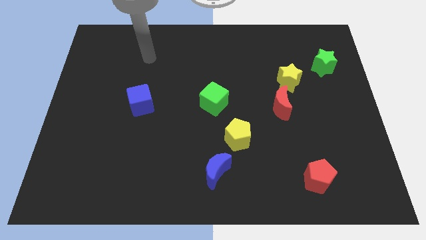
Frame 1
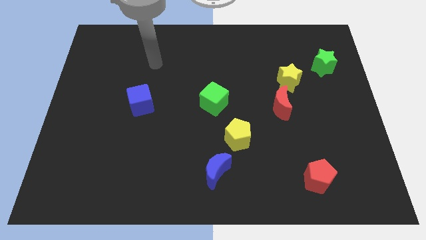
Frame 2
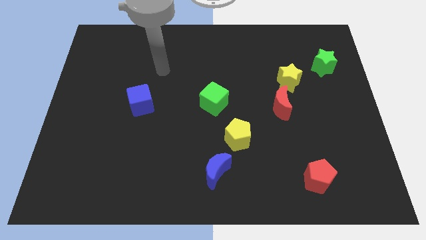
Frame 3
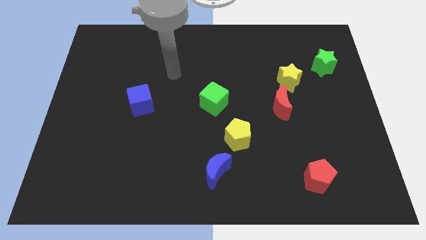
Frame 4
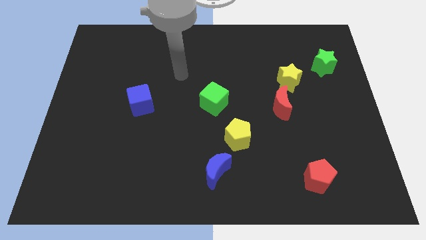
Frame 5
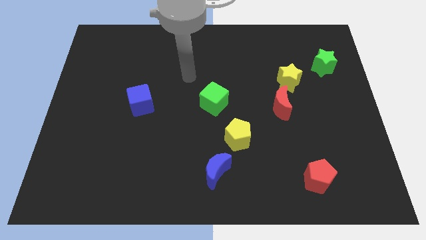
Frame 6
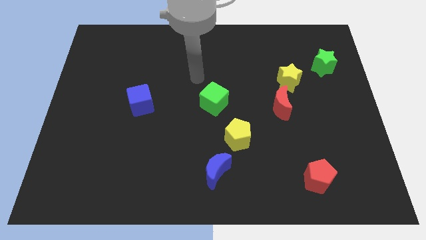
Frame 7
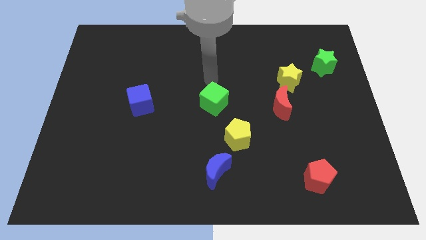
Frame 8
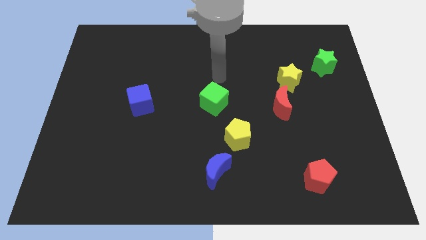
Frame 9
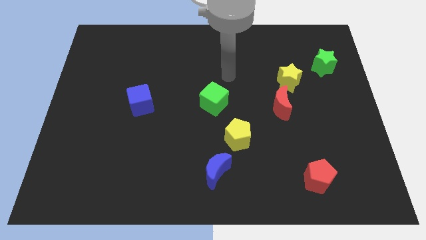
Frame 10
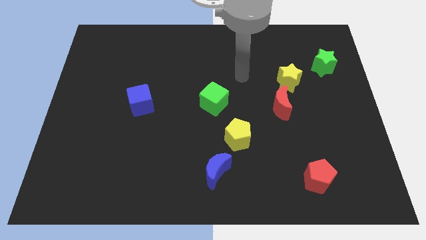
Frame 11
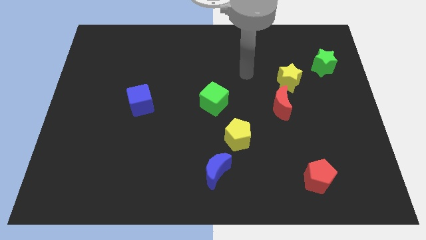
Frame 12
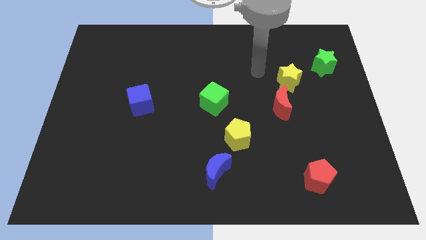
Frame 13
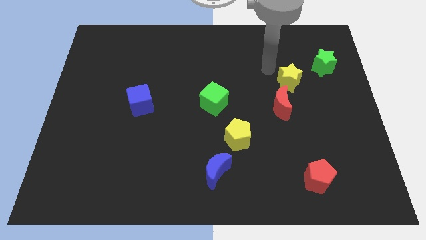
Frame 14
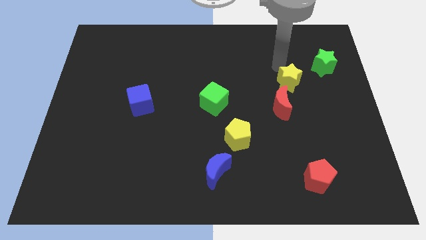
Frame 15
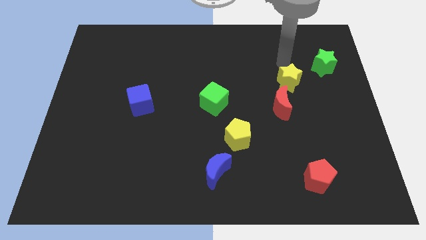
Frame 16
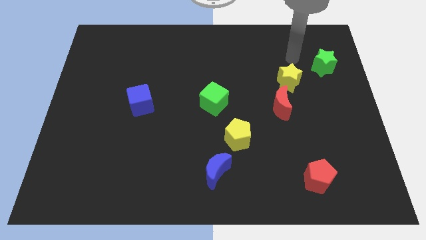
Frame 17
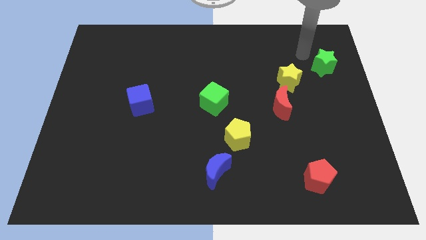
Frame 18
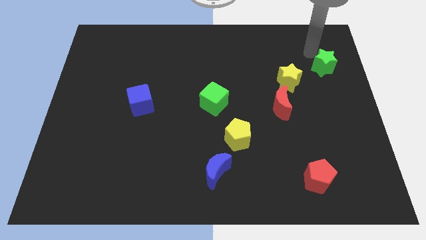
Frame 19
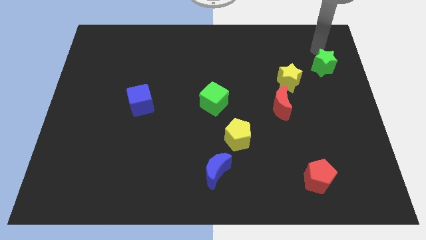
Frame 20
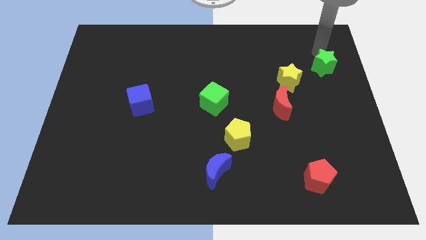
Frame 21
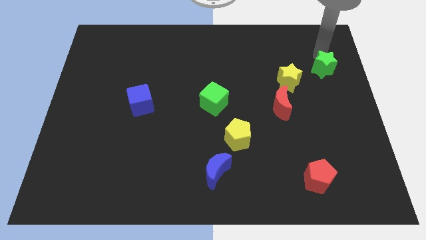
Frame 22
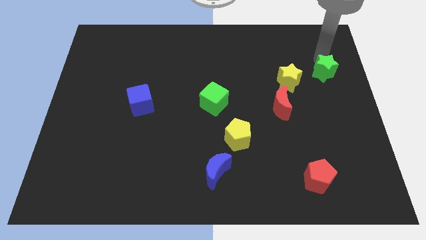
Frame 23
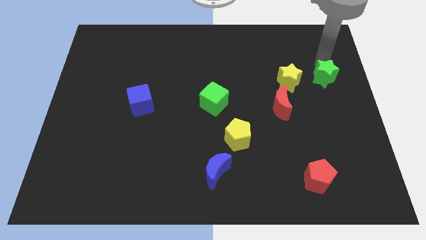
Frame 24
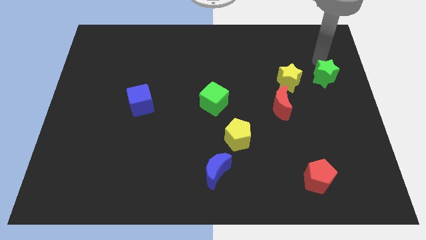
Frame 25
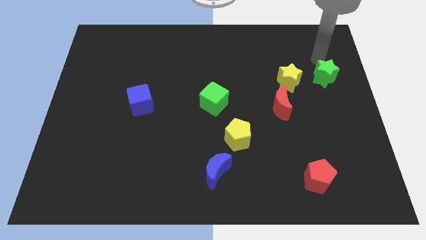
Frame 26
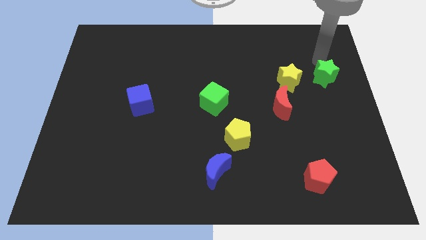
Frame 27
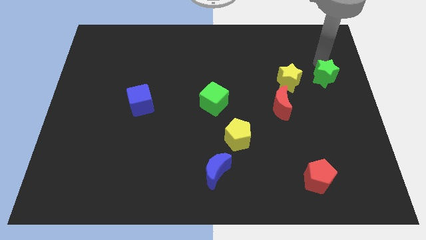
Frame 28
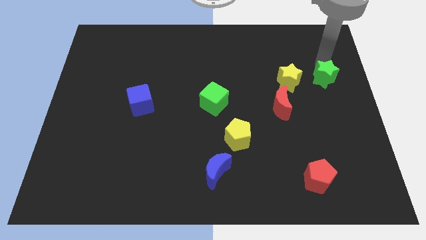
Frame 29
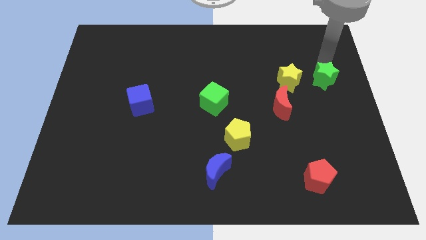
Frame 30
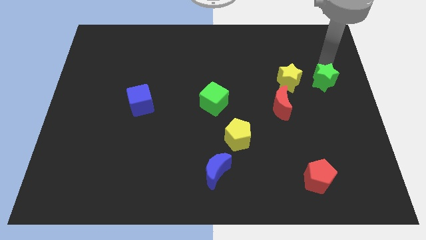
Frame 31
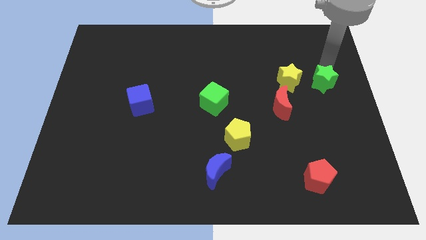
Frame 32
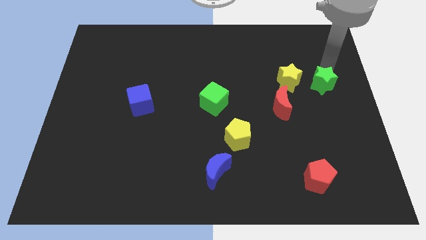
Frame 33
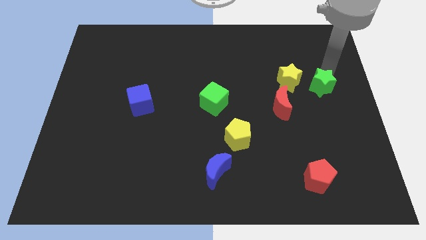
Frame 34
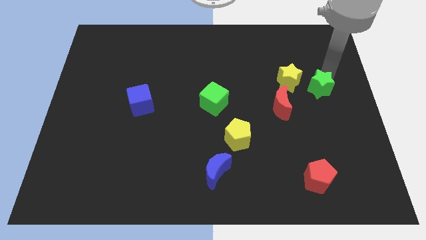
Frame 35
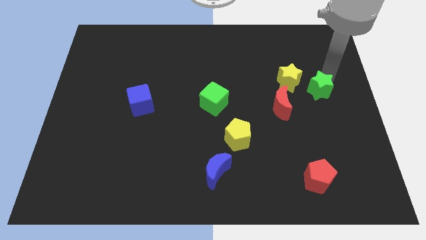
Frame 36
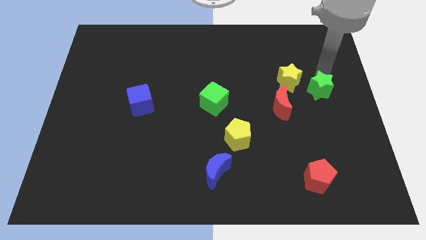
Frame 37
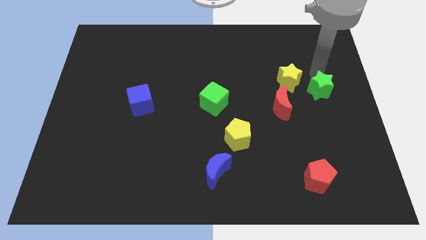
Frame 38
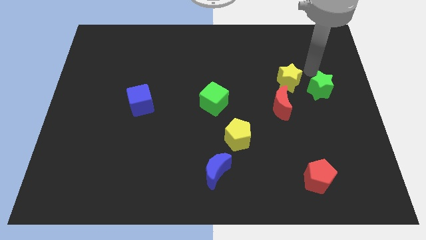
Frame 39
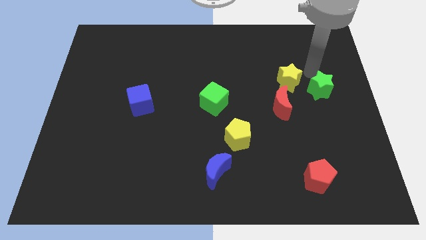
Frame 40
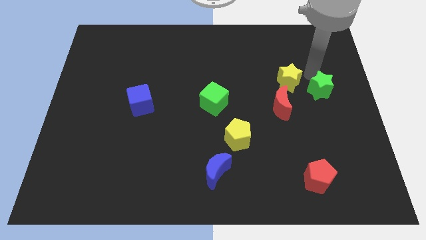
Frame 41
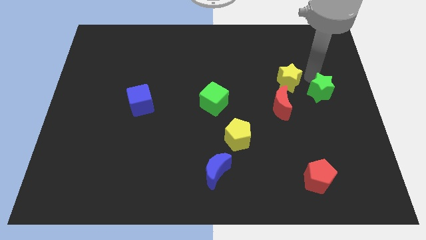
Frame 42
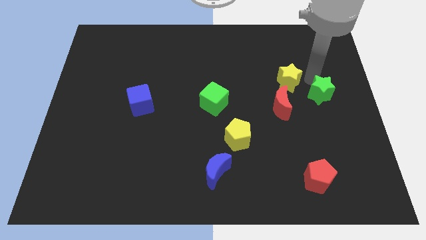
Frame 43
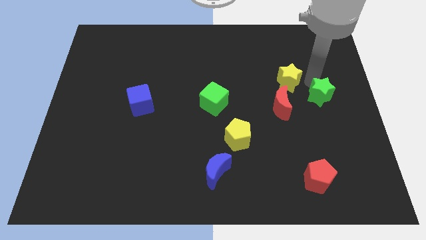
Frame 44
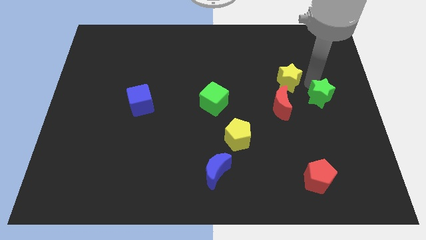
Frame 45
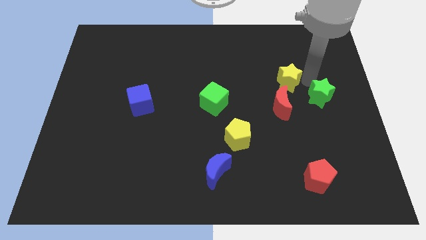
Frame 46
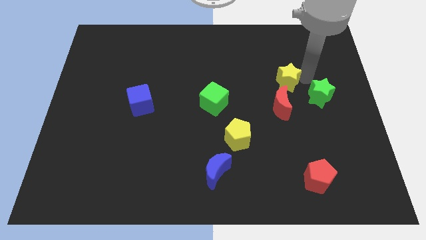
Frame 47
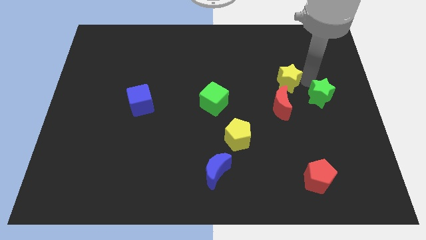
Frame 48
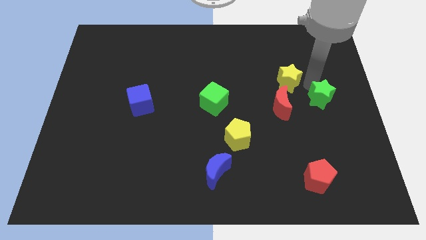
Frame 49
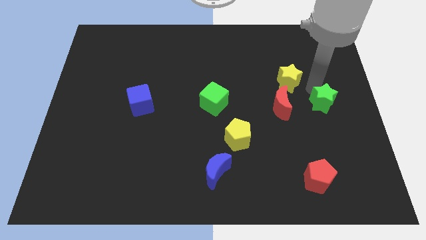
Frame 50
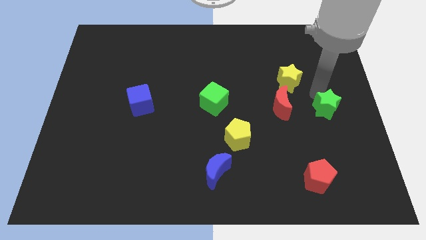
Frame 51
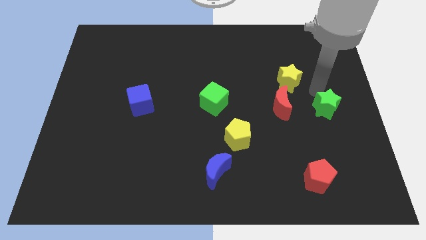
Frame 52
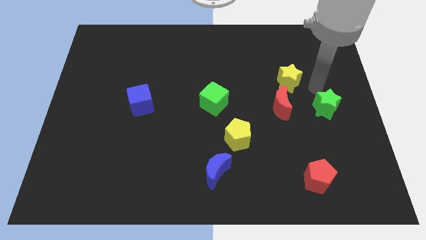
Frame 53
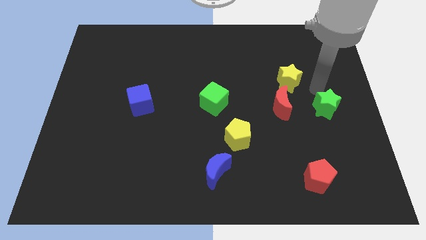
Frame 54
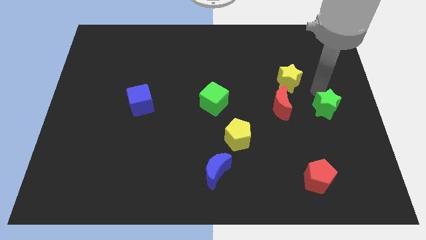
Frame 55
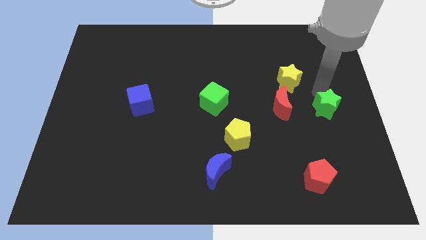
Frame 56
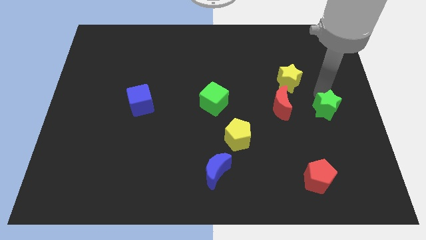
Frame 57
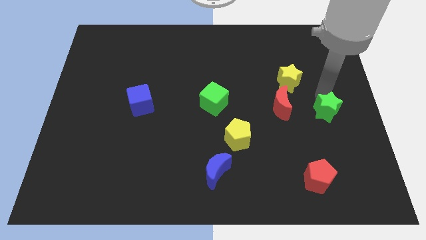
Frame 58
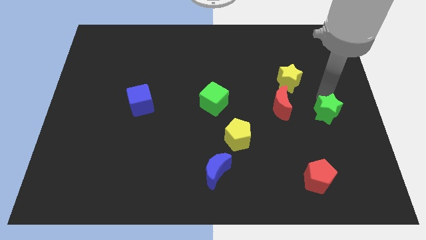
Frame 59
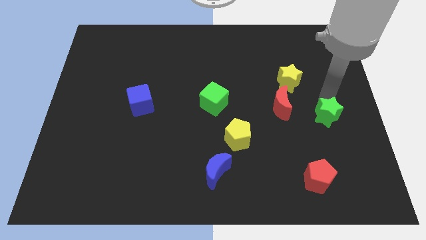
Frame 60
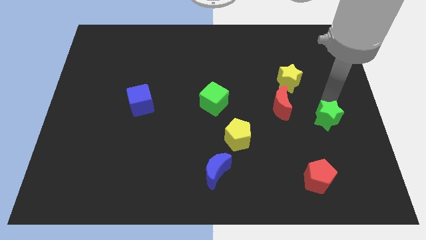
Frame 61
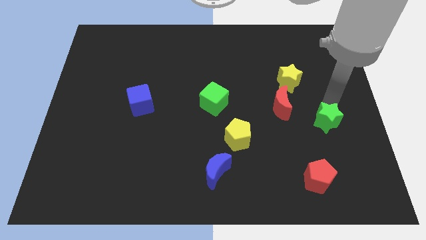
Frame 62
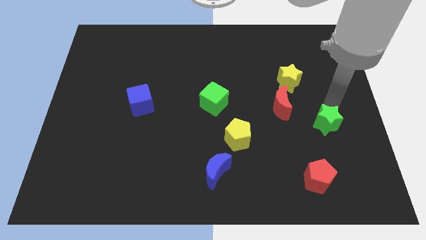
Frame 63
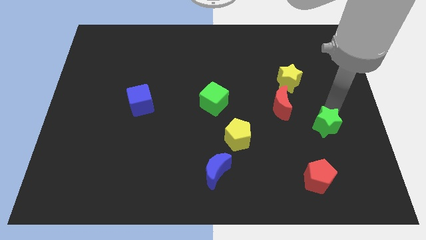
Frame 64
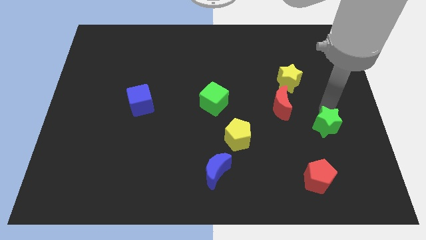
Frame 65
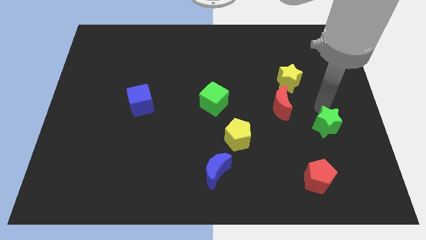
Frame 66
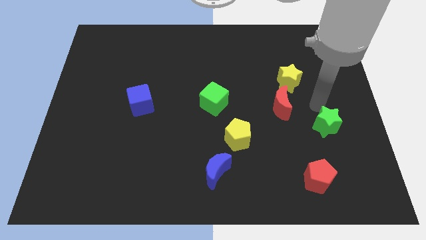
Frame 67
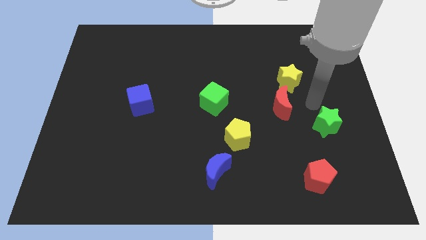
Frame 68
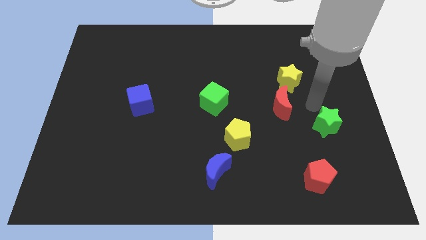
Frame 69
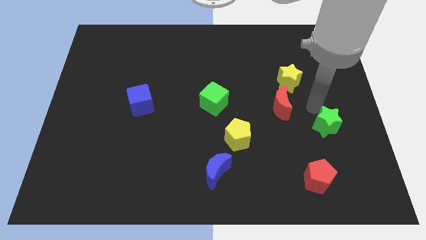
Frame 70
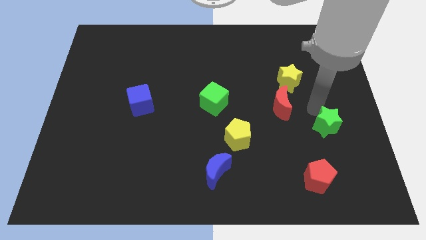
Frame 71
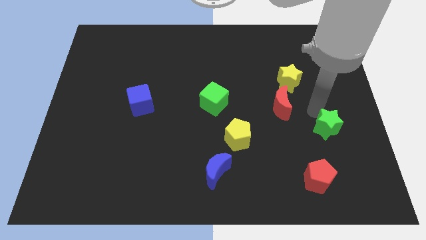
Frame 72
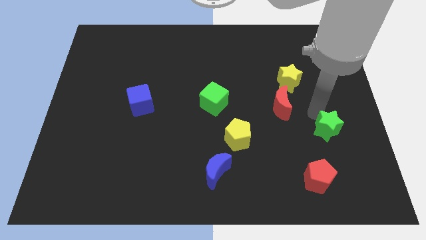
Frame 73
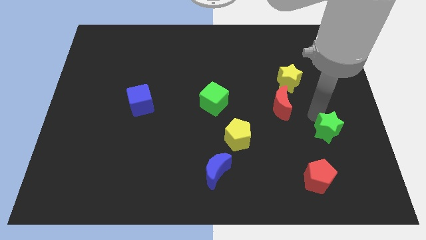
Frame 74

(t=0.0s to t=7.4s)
push the green star downwards

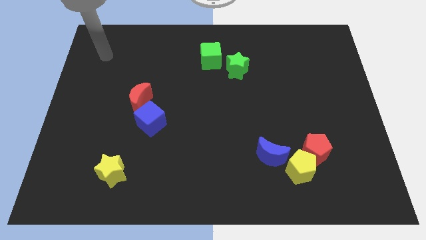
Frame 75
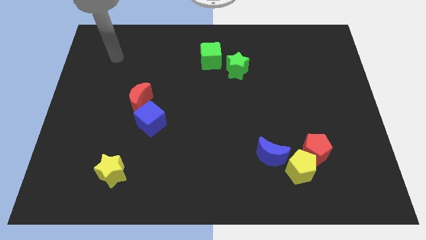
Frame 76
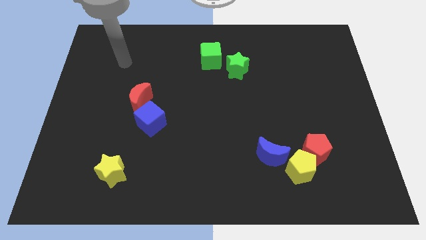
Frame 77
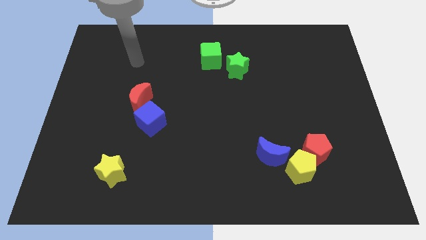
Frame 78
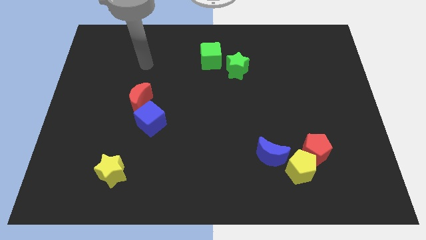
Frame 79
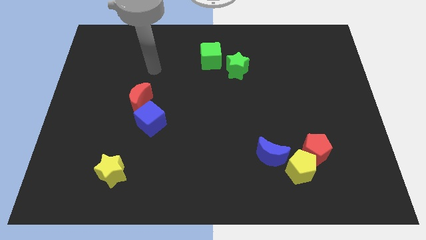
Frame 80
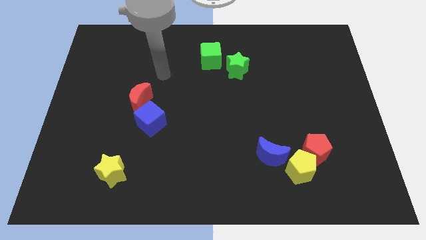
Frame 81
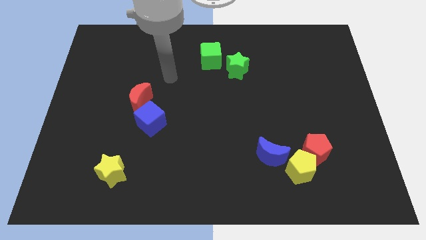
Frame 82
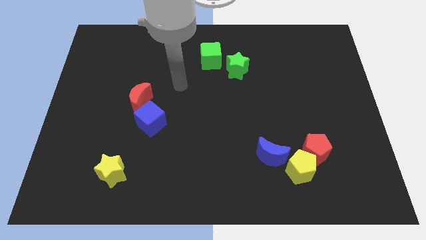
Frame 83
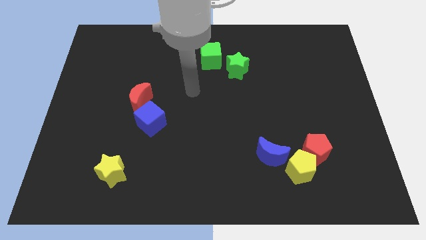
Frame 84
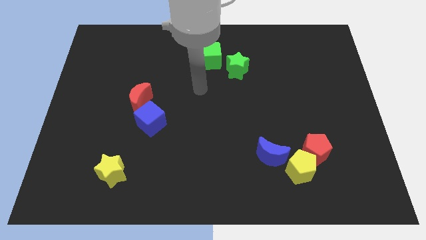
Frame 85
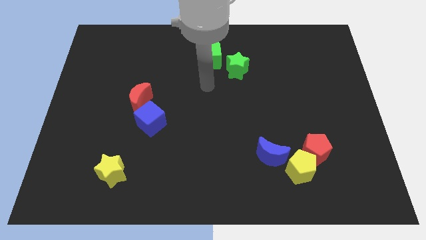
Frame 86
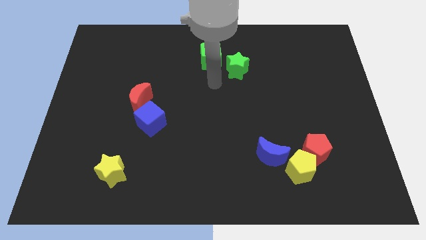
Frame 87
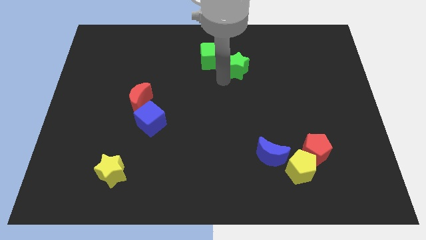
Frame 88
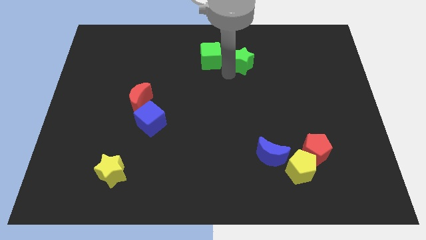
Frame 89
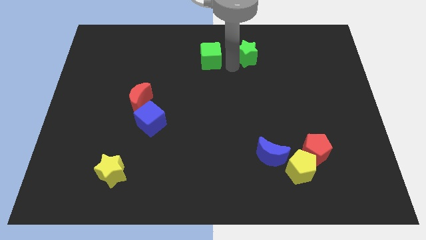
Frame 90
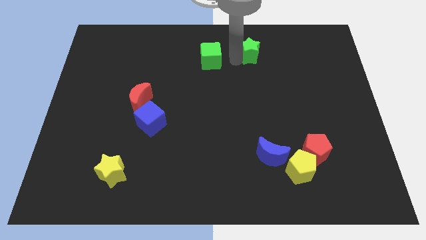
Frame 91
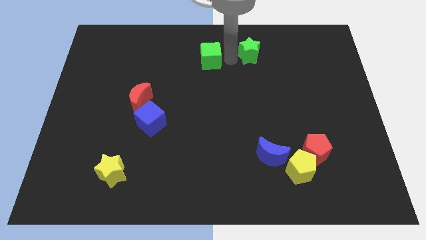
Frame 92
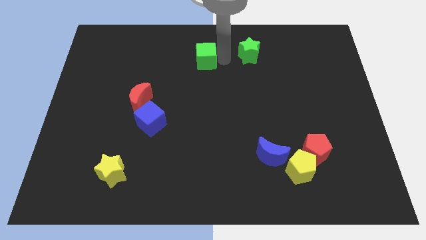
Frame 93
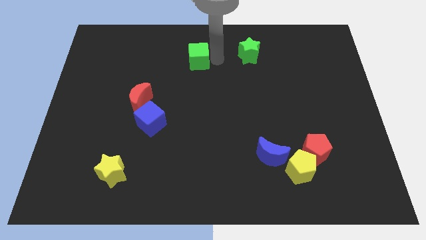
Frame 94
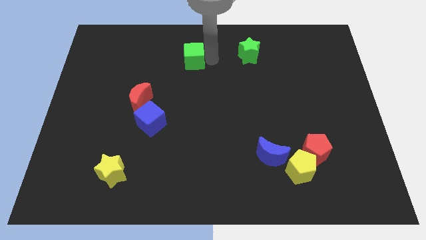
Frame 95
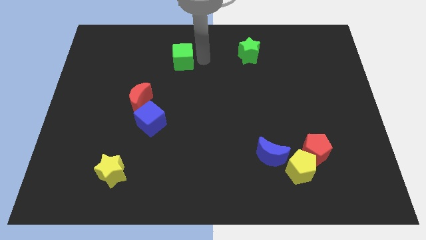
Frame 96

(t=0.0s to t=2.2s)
move the green cube somewhat left
